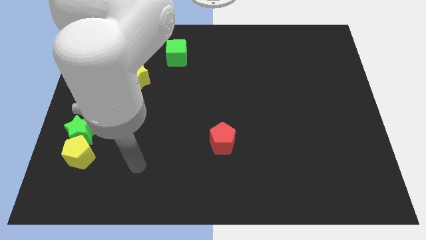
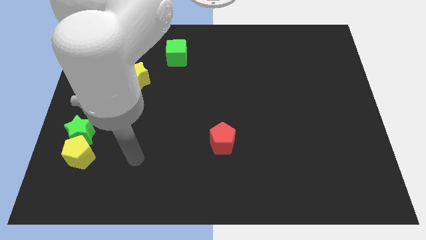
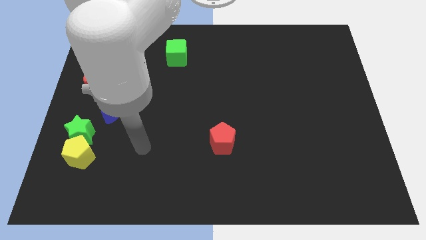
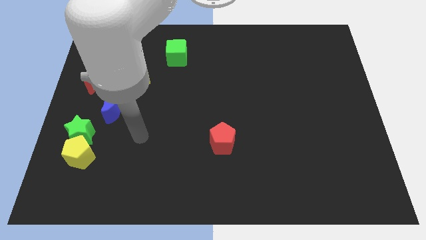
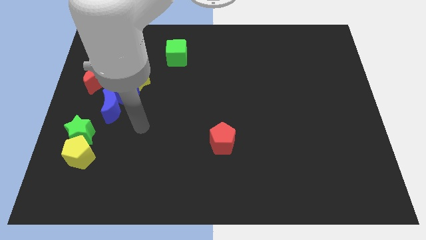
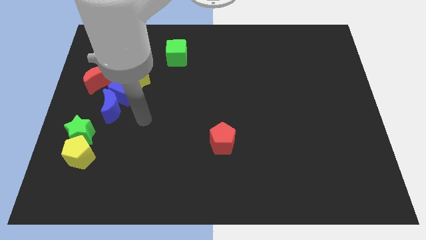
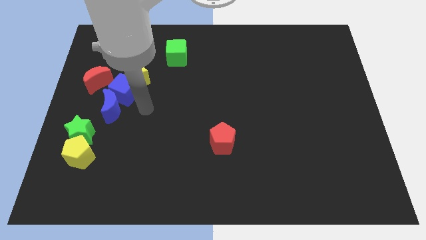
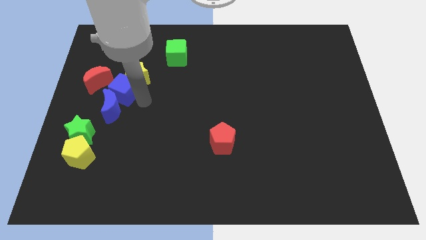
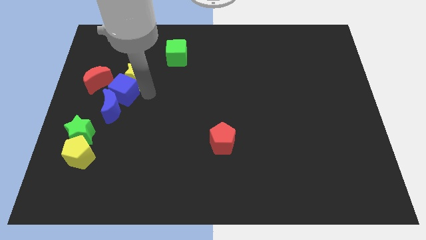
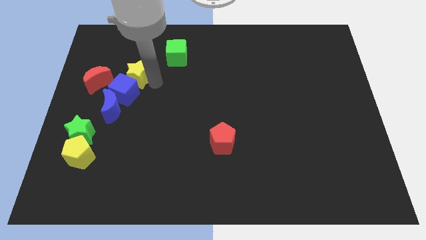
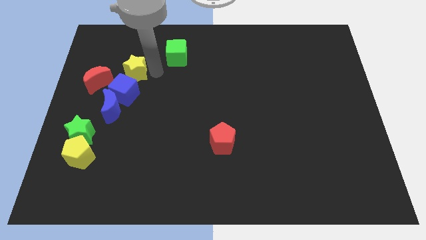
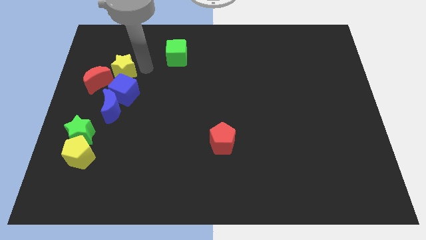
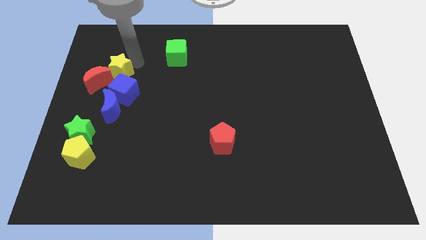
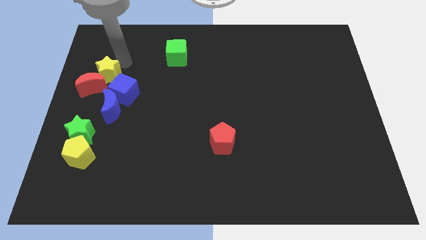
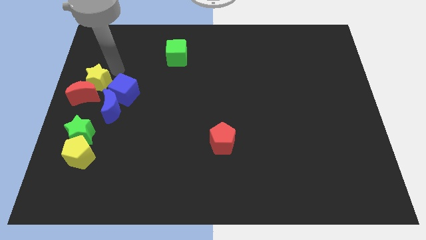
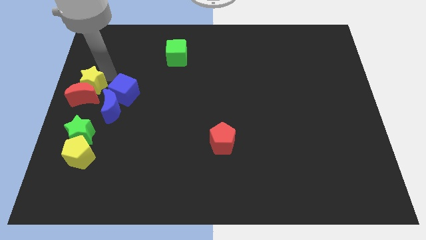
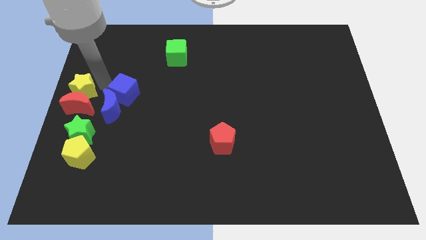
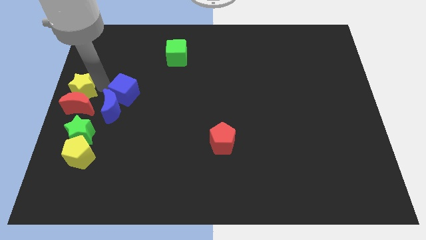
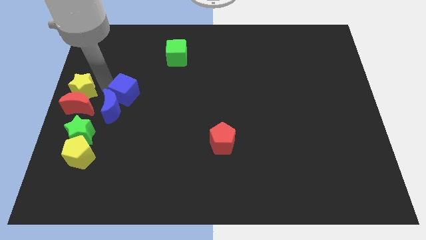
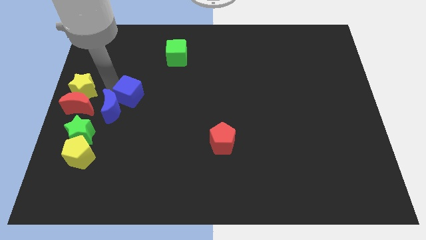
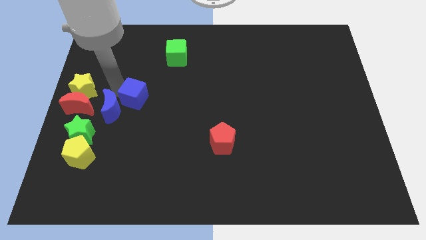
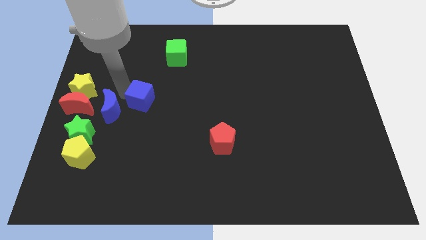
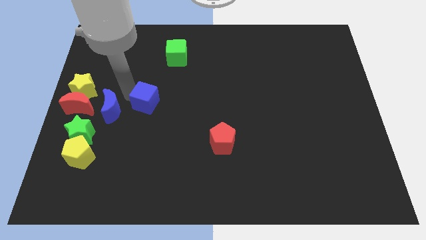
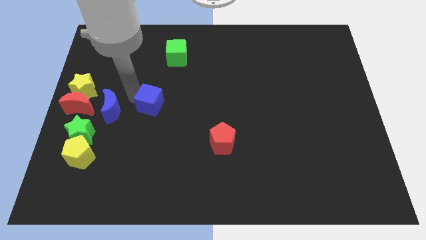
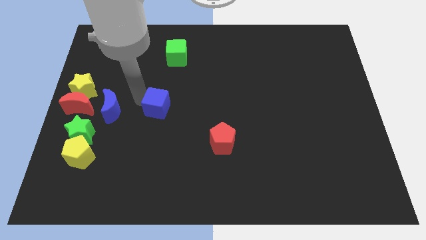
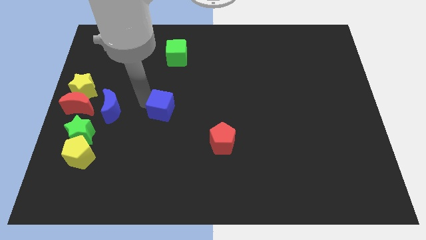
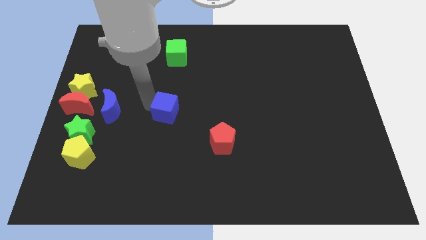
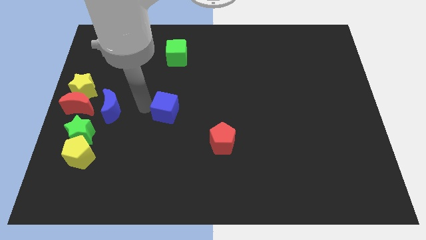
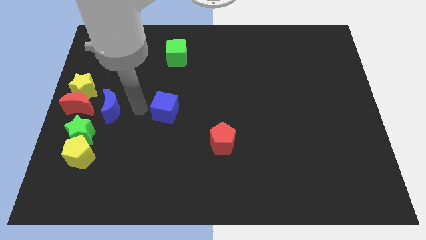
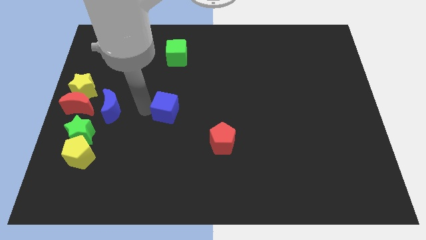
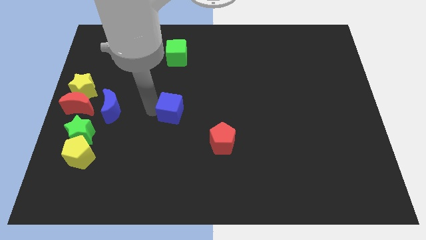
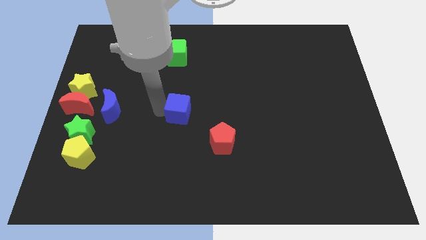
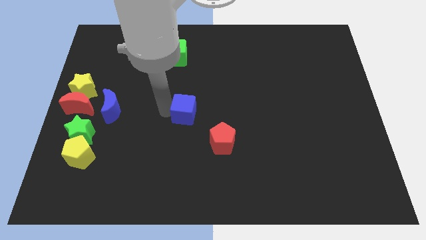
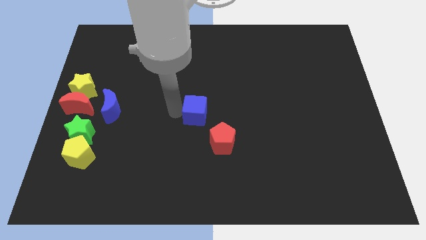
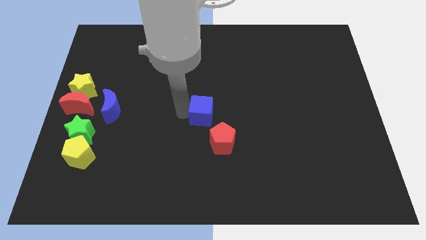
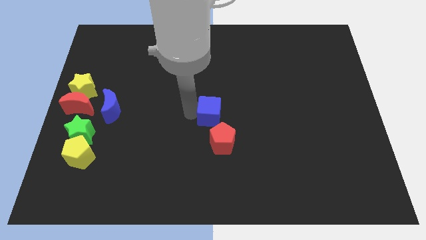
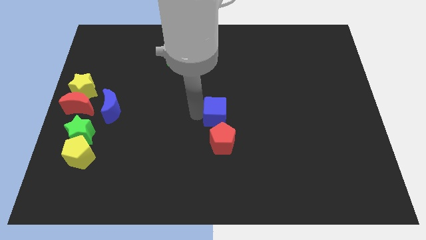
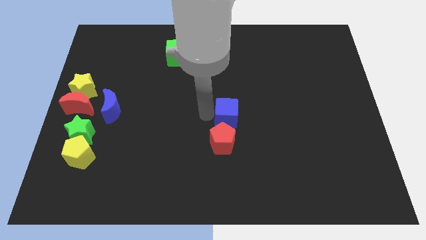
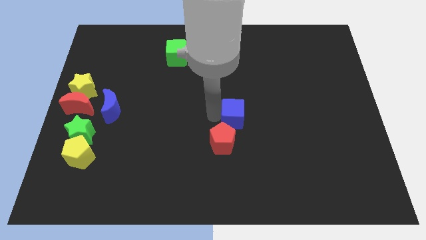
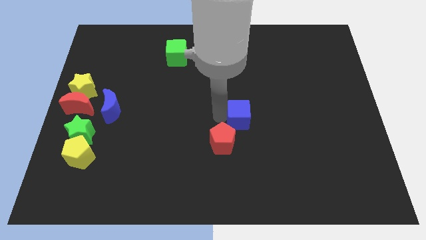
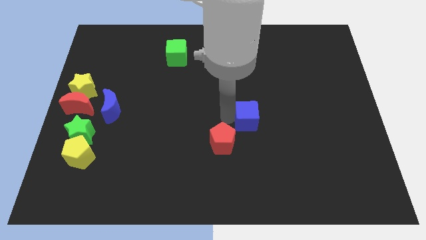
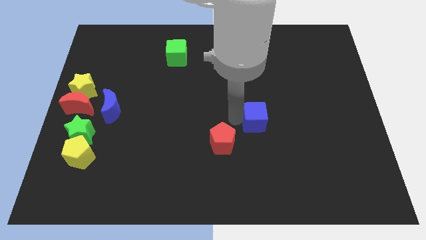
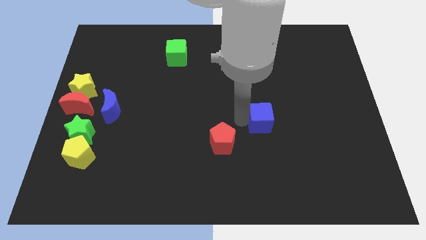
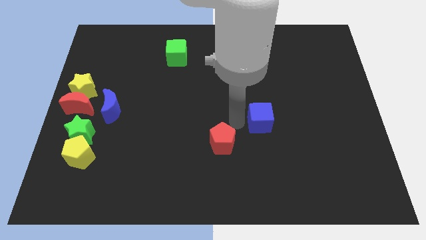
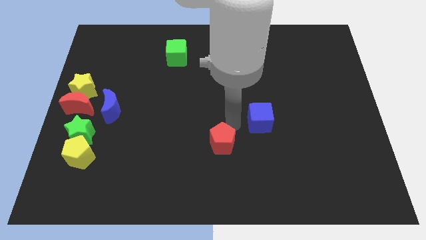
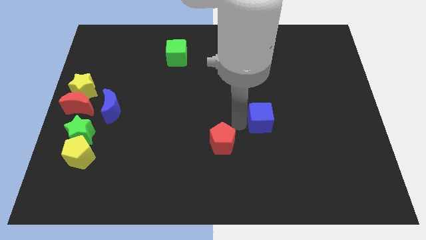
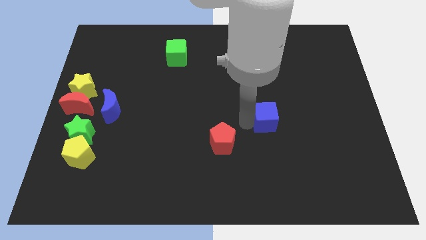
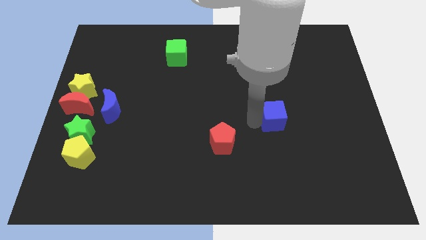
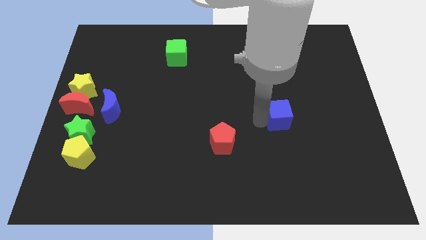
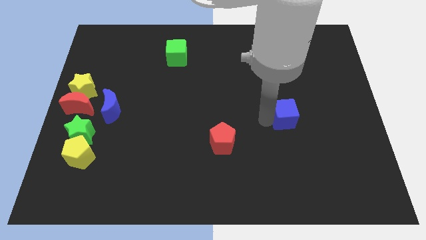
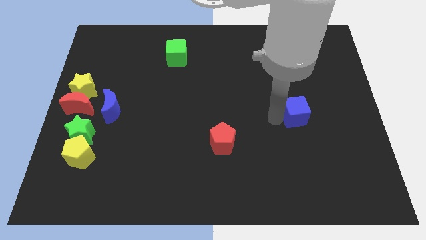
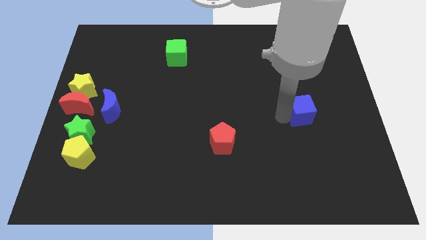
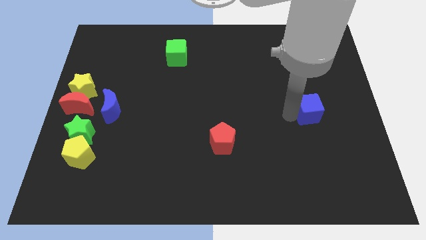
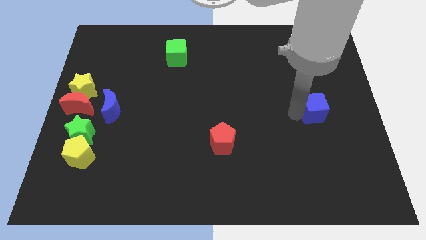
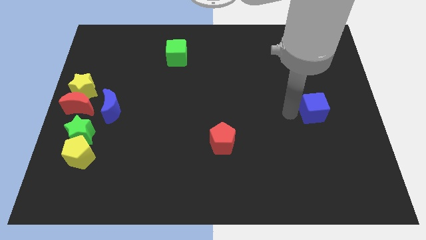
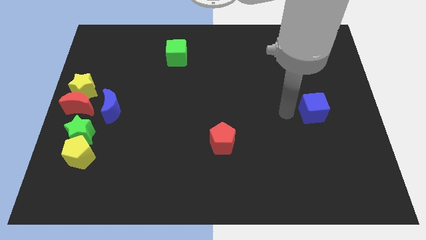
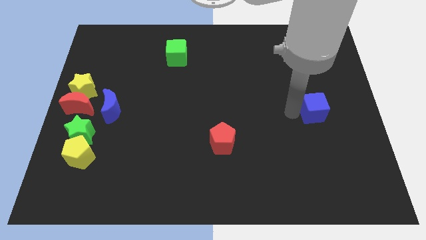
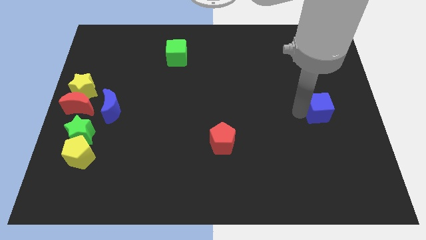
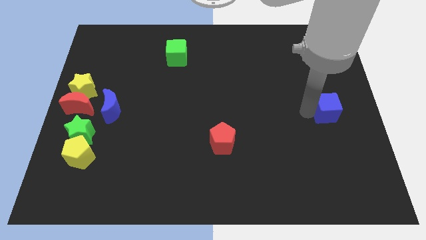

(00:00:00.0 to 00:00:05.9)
push the blue cube to the center right
